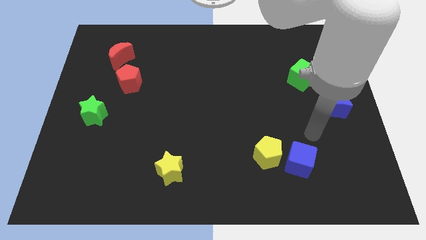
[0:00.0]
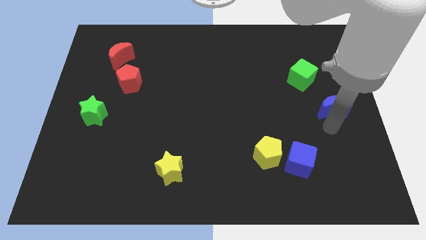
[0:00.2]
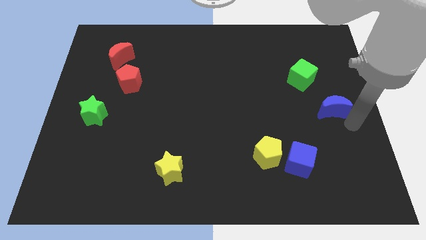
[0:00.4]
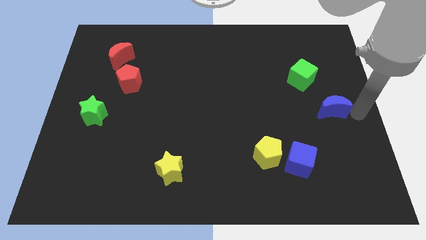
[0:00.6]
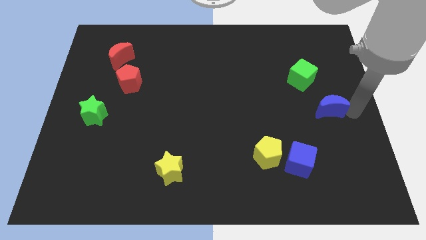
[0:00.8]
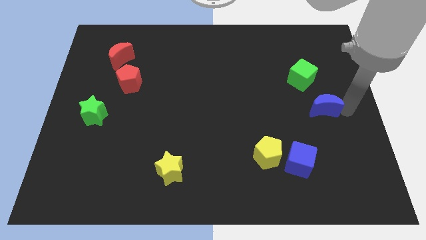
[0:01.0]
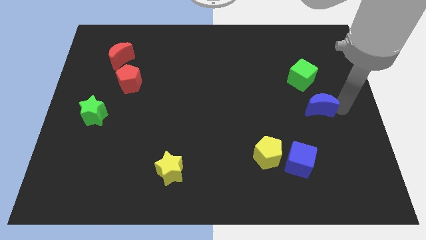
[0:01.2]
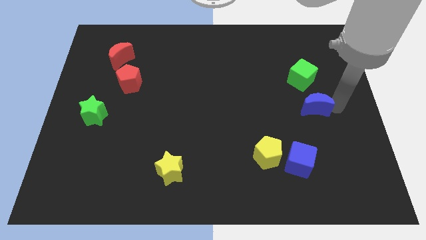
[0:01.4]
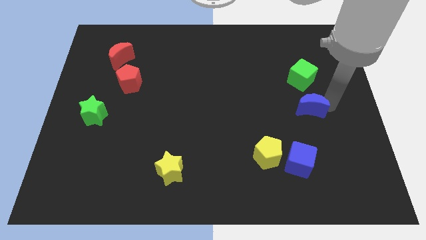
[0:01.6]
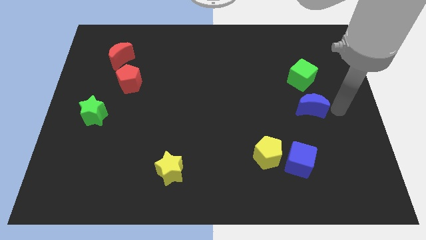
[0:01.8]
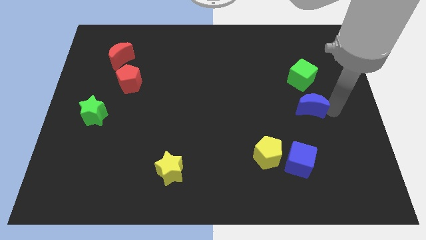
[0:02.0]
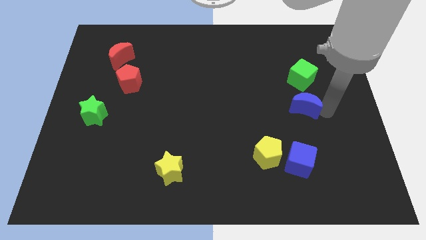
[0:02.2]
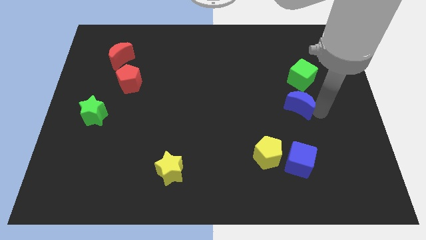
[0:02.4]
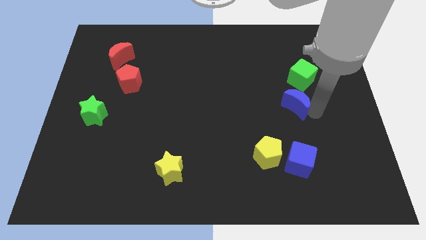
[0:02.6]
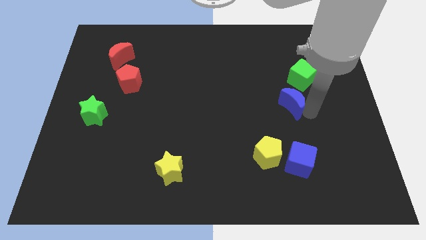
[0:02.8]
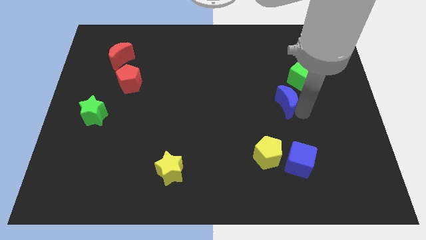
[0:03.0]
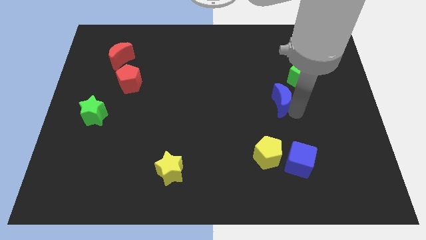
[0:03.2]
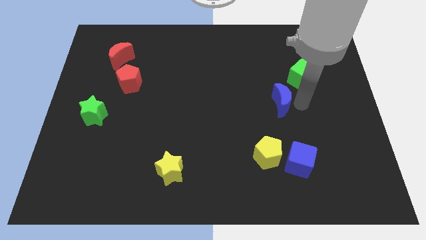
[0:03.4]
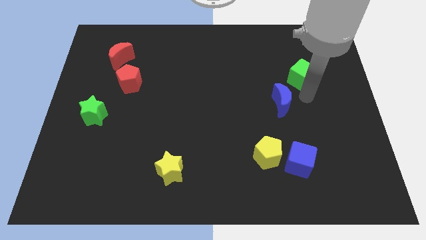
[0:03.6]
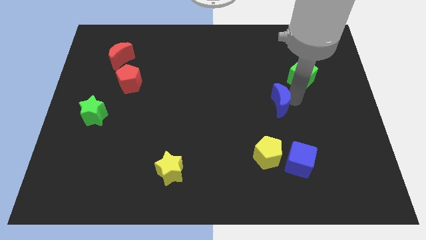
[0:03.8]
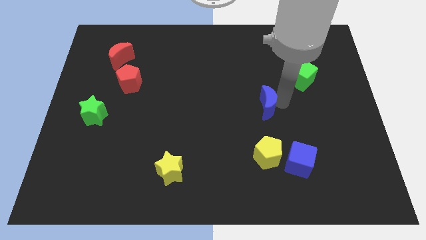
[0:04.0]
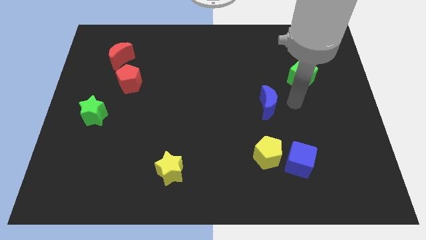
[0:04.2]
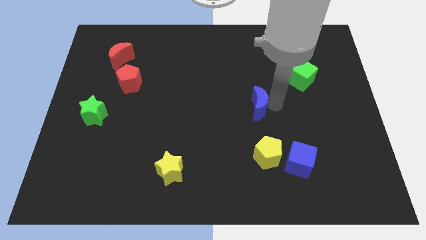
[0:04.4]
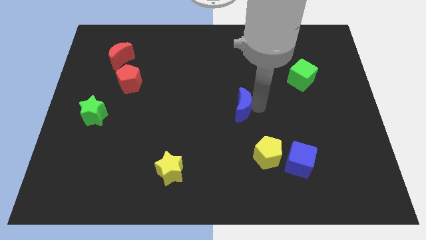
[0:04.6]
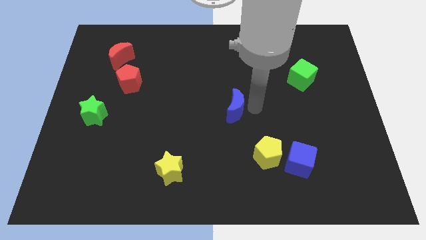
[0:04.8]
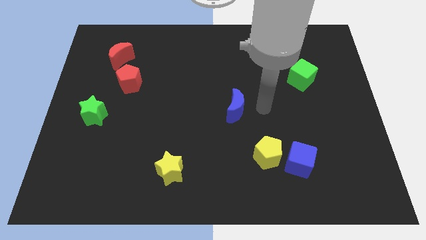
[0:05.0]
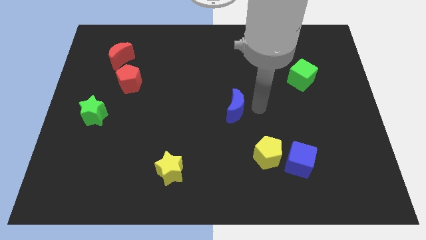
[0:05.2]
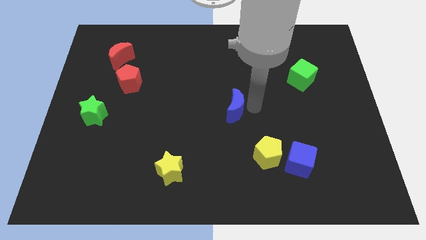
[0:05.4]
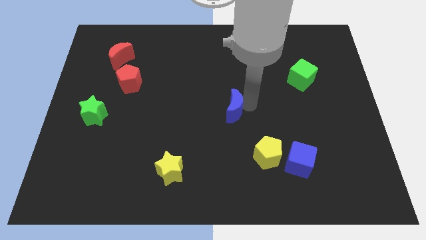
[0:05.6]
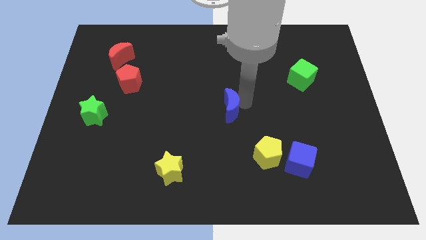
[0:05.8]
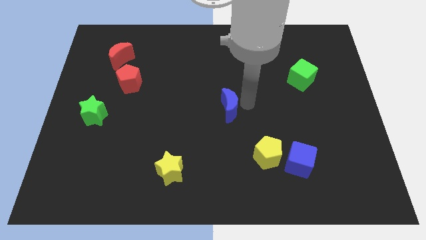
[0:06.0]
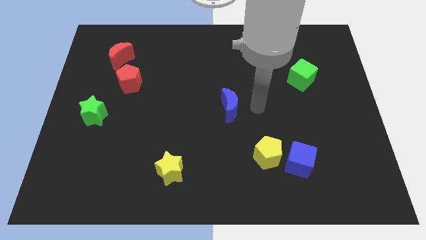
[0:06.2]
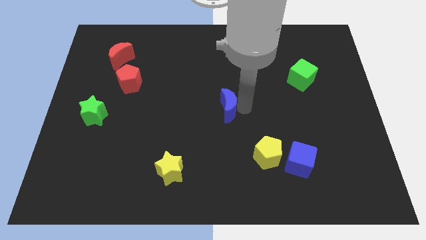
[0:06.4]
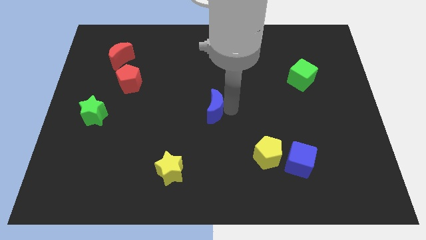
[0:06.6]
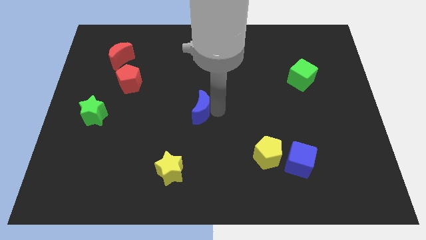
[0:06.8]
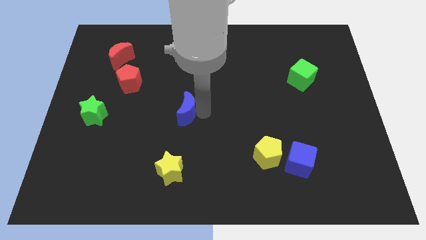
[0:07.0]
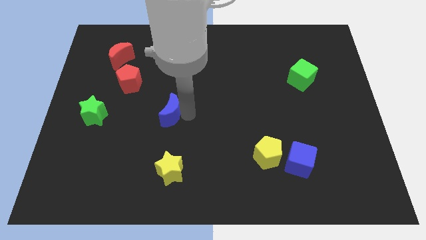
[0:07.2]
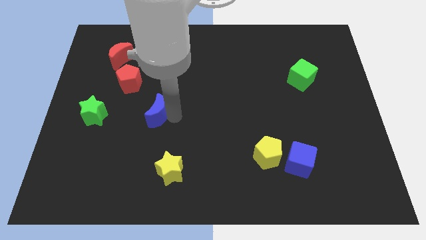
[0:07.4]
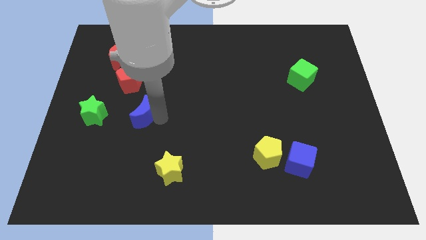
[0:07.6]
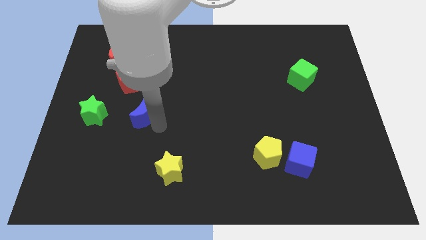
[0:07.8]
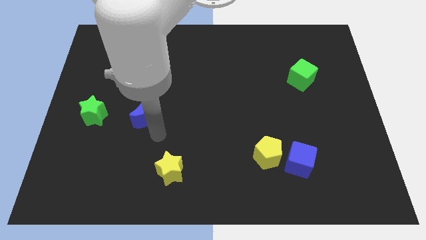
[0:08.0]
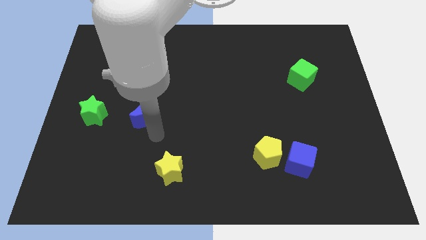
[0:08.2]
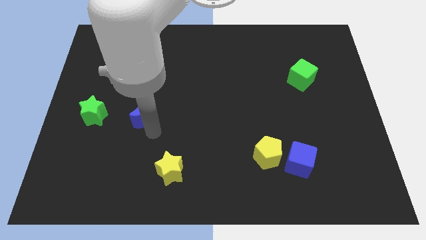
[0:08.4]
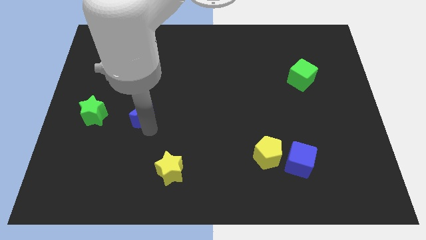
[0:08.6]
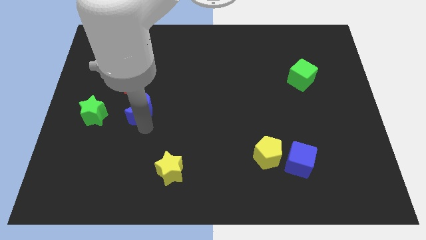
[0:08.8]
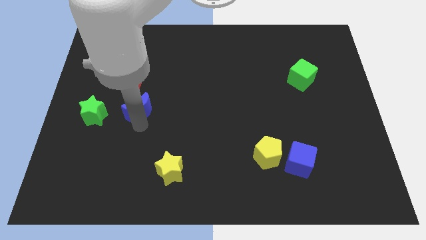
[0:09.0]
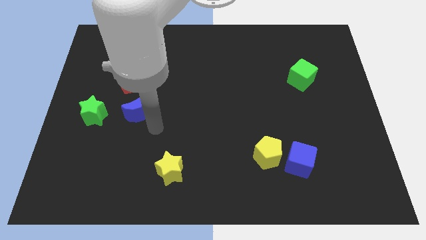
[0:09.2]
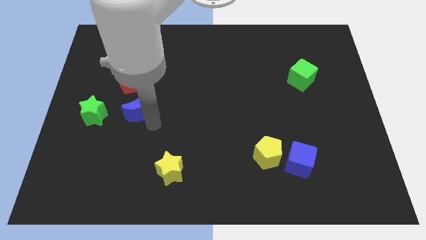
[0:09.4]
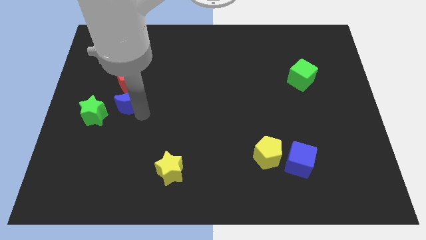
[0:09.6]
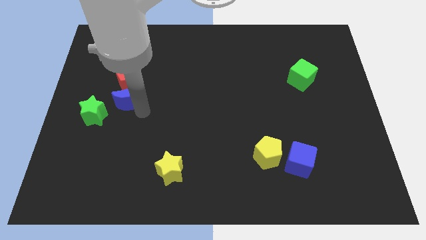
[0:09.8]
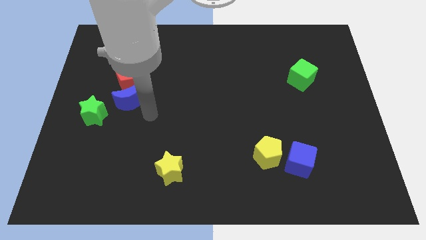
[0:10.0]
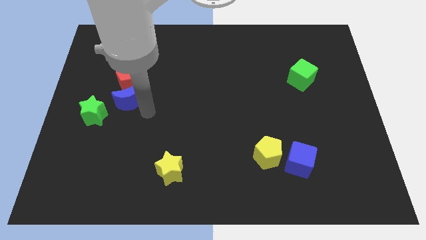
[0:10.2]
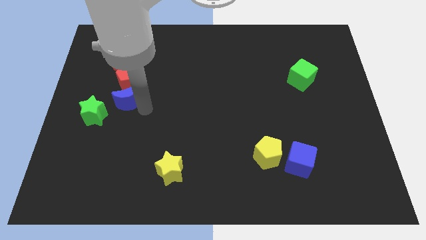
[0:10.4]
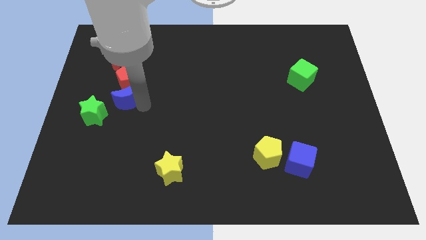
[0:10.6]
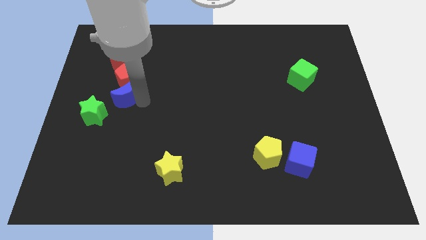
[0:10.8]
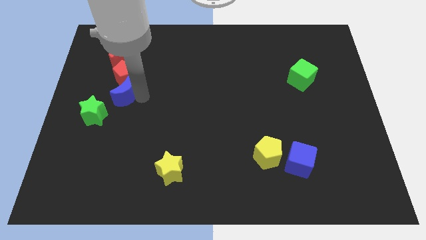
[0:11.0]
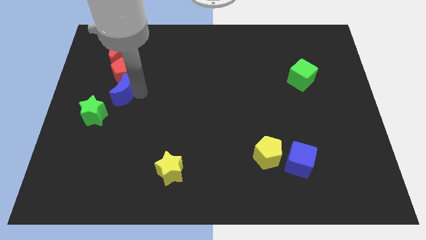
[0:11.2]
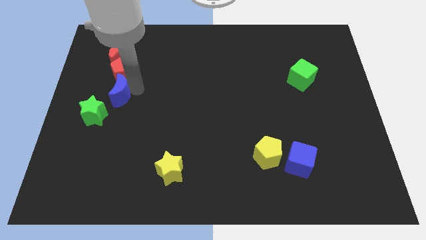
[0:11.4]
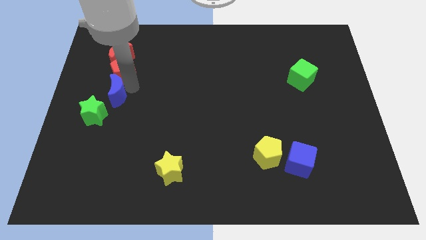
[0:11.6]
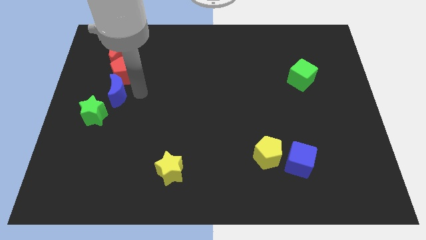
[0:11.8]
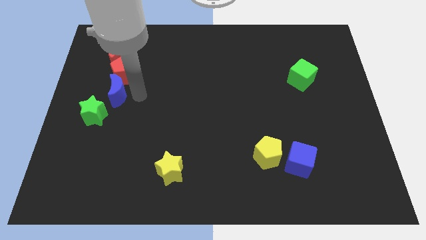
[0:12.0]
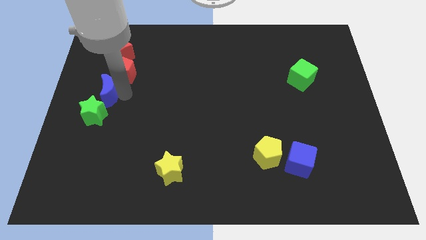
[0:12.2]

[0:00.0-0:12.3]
move the blue moon to the center left
